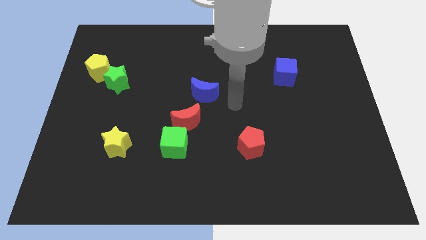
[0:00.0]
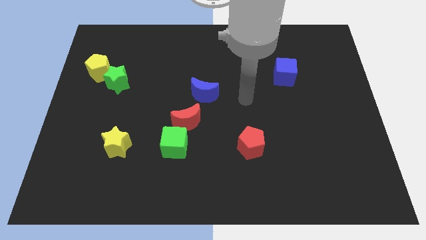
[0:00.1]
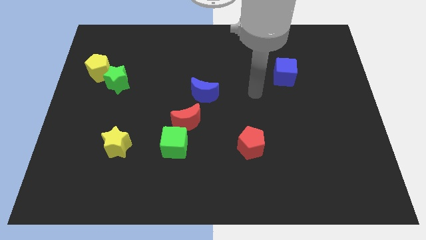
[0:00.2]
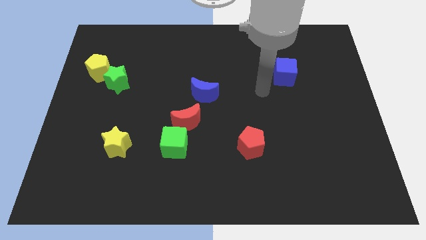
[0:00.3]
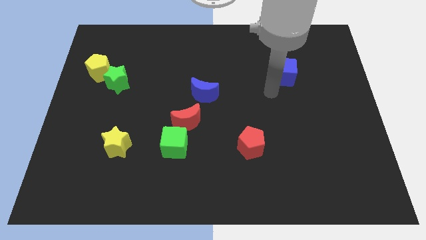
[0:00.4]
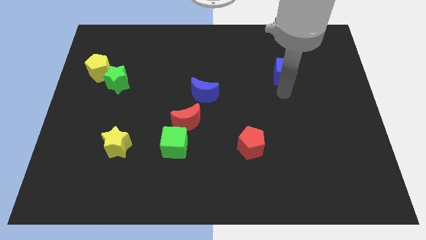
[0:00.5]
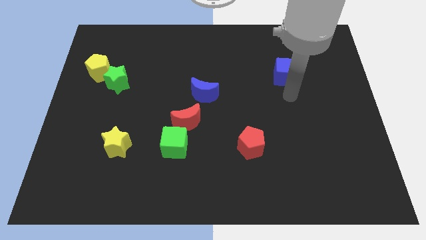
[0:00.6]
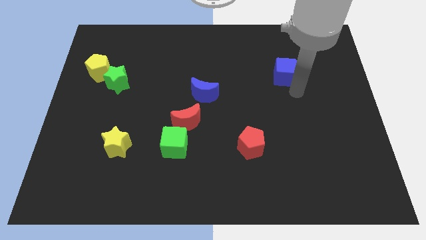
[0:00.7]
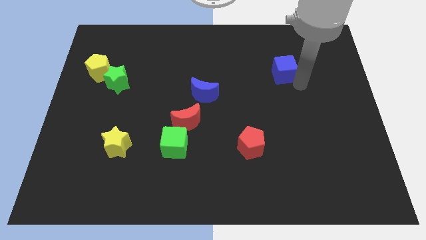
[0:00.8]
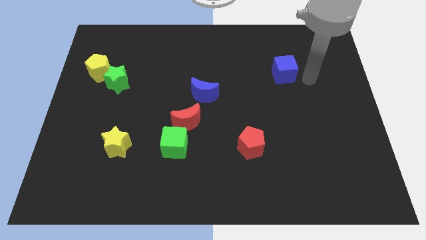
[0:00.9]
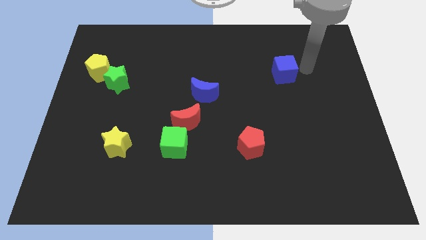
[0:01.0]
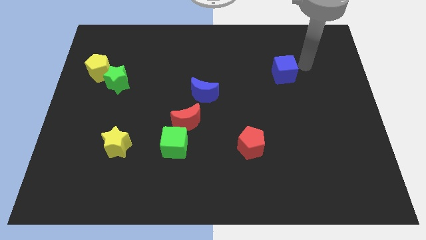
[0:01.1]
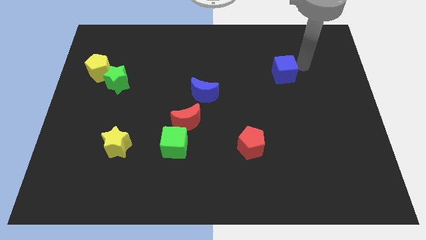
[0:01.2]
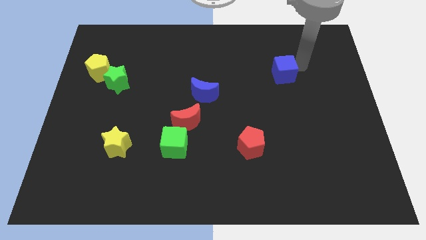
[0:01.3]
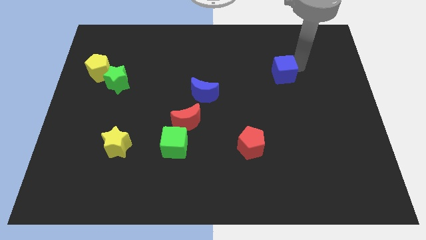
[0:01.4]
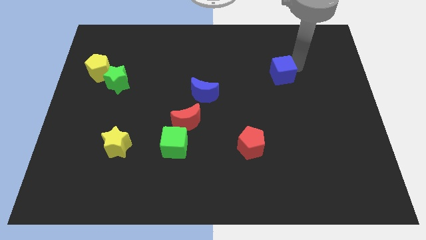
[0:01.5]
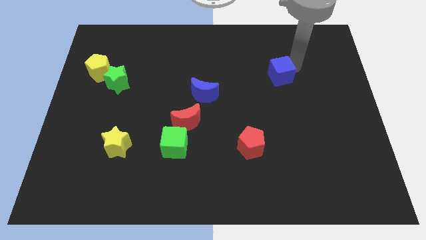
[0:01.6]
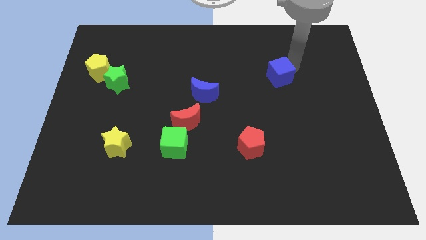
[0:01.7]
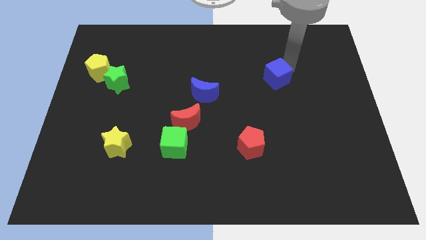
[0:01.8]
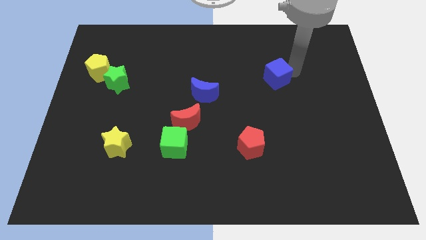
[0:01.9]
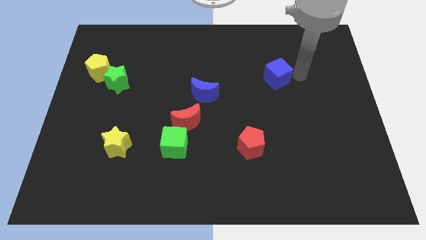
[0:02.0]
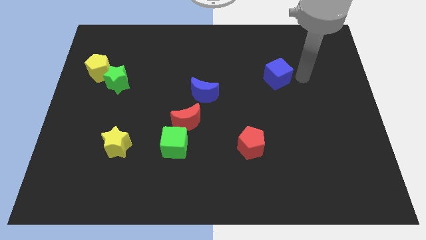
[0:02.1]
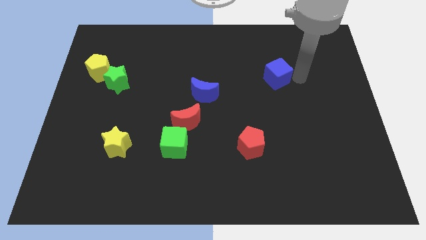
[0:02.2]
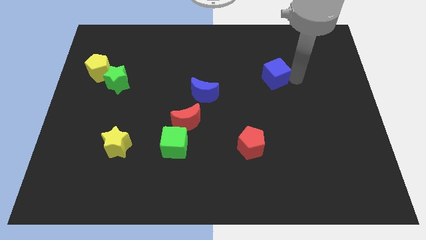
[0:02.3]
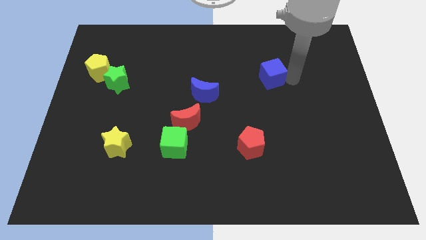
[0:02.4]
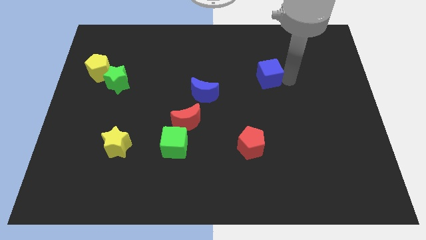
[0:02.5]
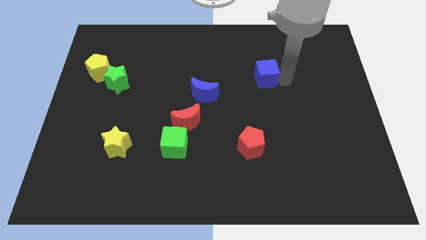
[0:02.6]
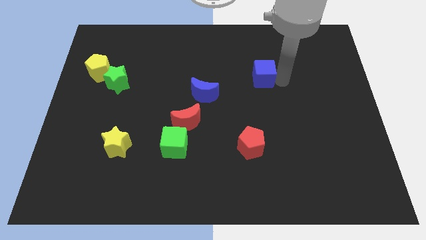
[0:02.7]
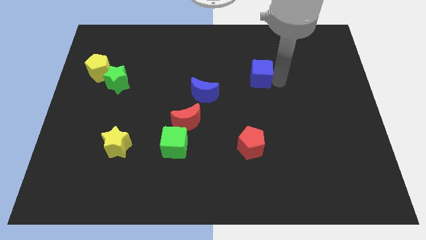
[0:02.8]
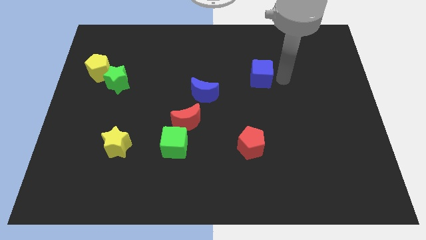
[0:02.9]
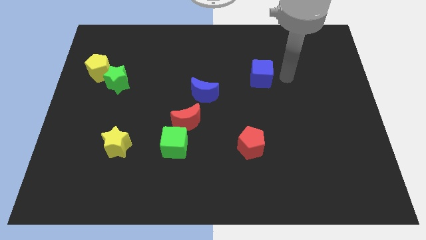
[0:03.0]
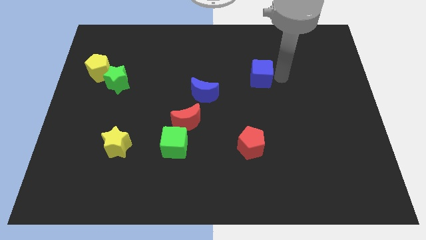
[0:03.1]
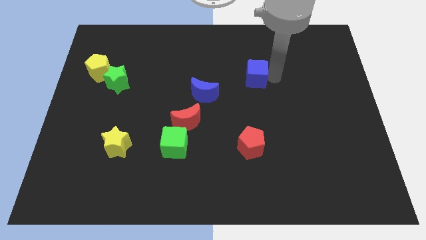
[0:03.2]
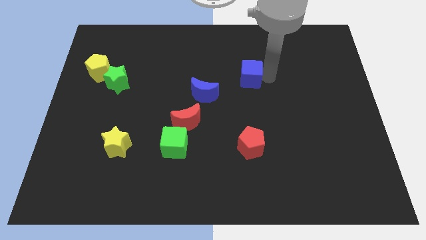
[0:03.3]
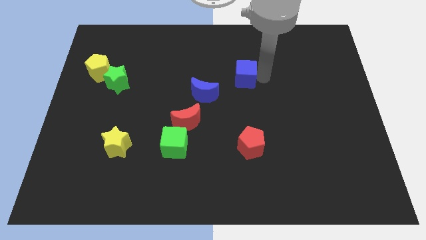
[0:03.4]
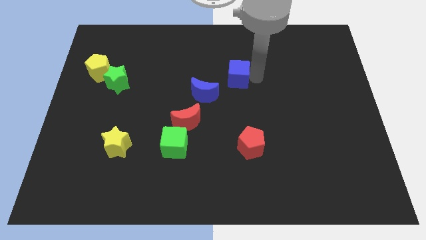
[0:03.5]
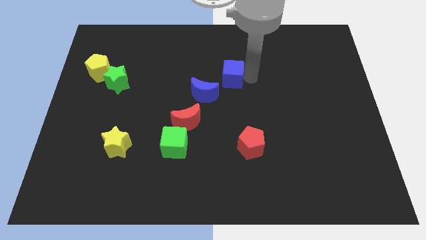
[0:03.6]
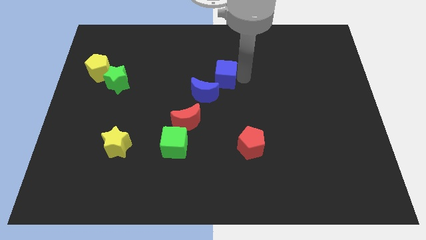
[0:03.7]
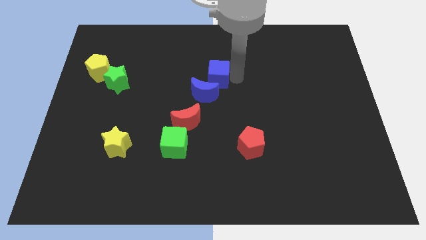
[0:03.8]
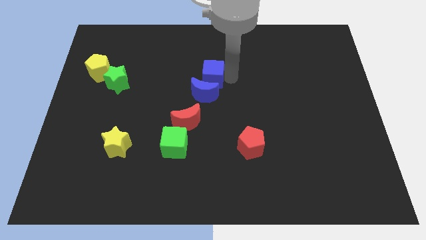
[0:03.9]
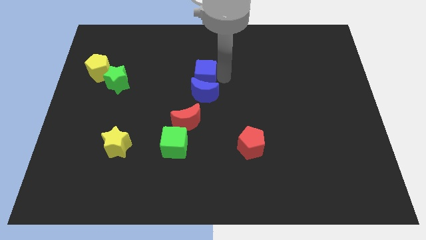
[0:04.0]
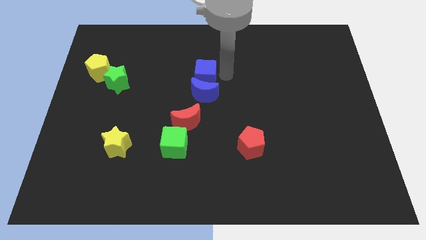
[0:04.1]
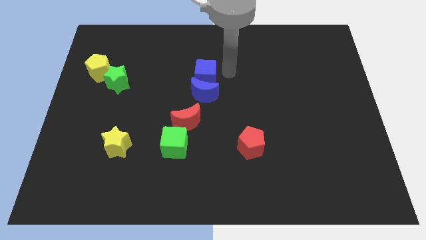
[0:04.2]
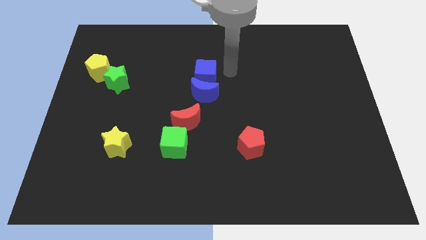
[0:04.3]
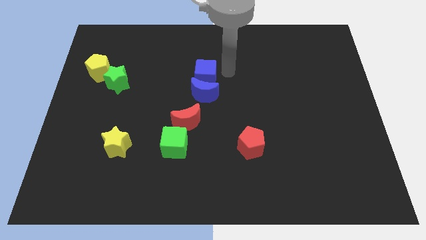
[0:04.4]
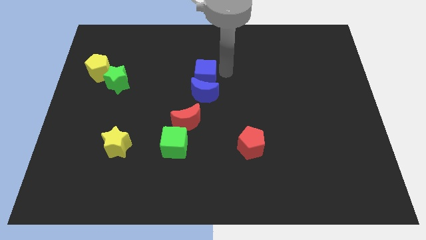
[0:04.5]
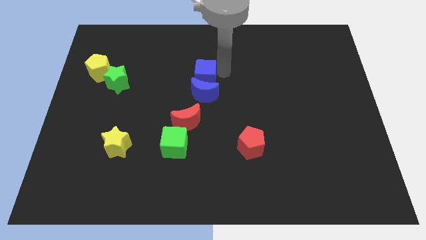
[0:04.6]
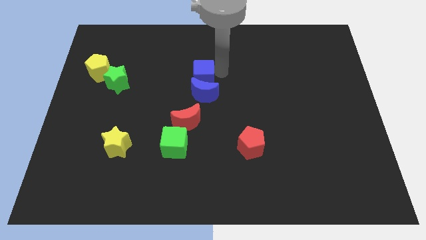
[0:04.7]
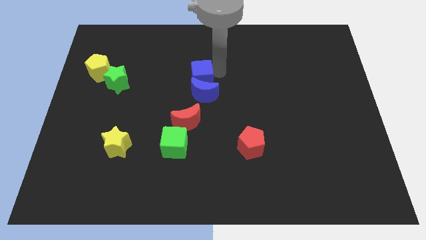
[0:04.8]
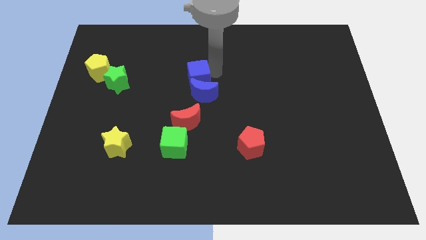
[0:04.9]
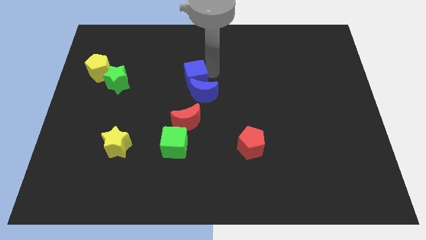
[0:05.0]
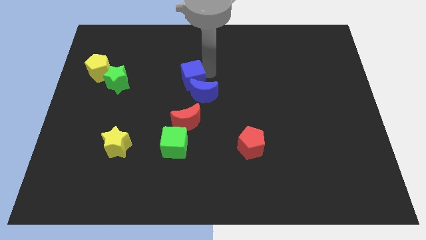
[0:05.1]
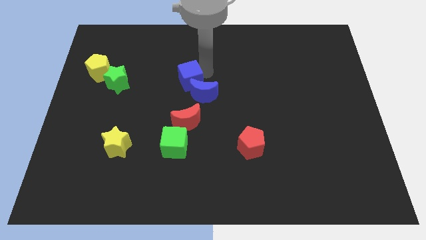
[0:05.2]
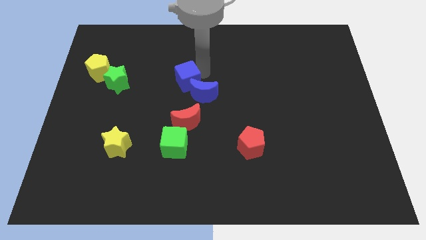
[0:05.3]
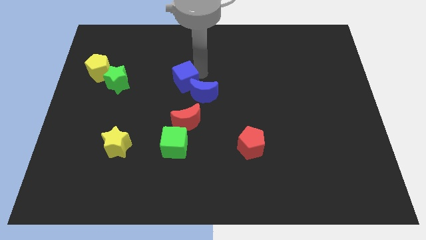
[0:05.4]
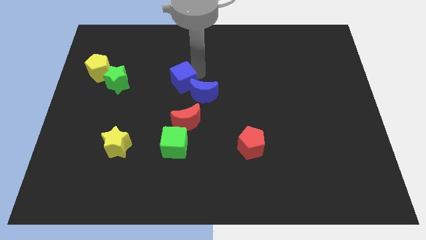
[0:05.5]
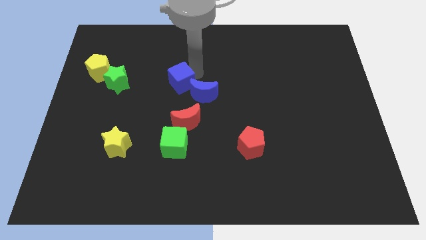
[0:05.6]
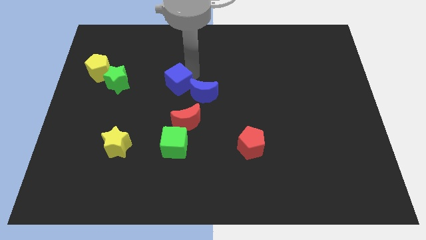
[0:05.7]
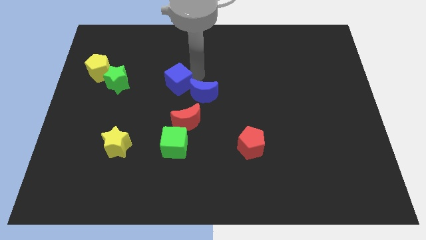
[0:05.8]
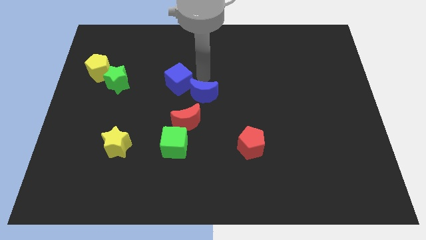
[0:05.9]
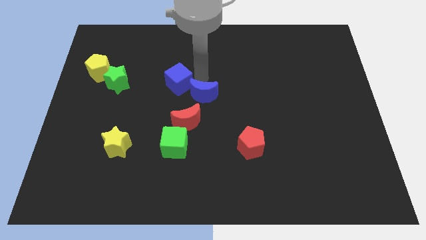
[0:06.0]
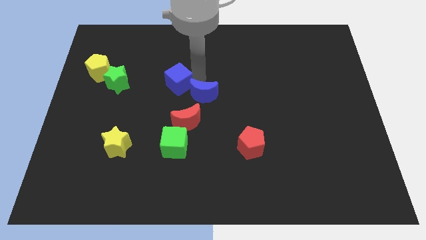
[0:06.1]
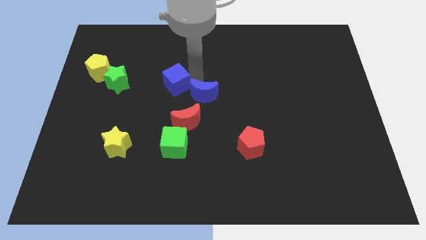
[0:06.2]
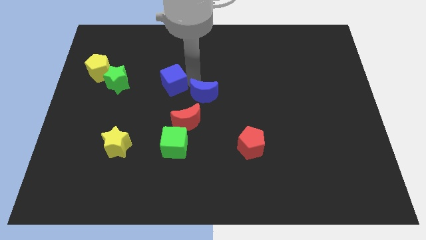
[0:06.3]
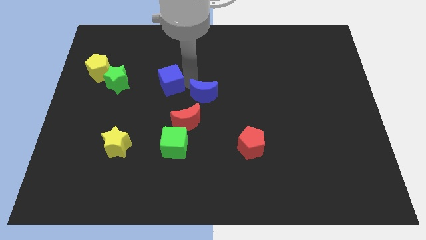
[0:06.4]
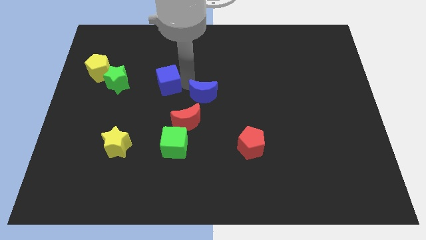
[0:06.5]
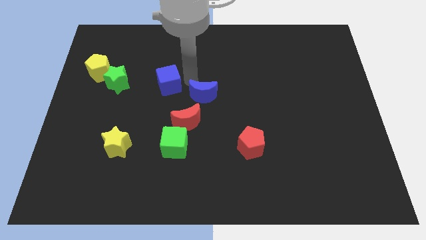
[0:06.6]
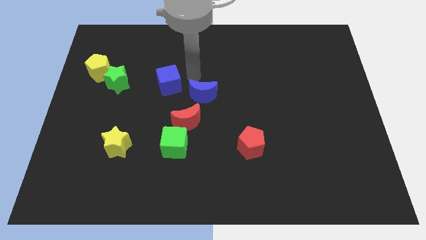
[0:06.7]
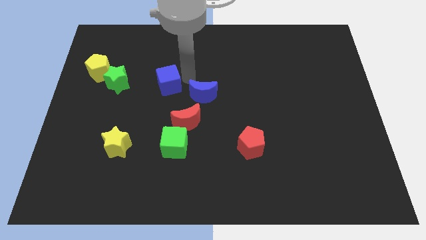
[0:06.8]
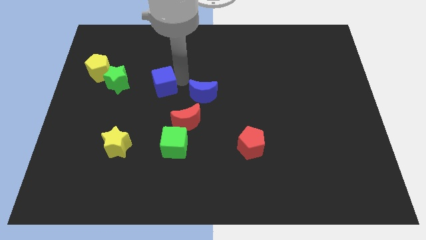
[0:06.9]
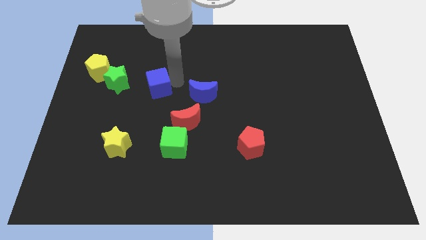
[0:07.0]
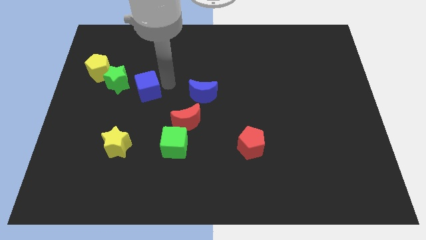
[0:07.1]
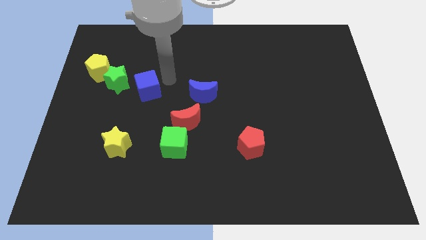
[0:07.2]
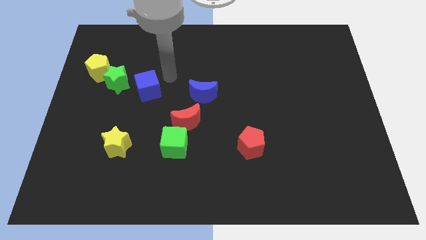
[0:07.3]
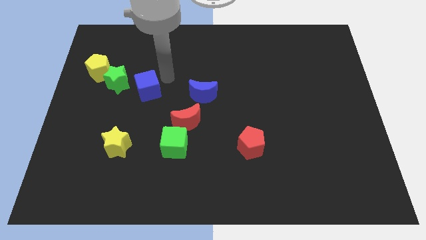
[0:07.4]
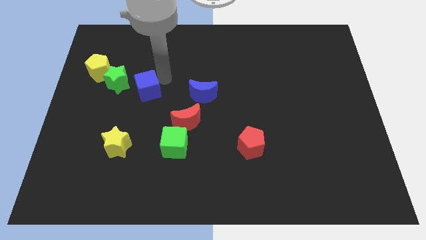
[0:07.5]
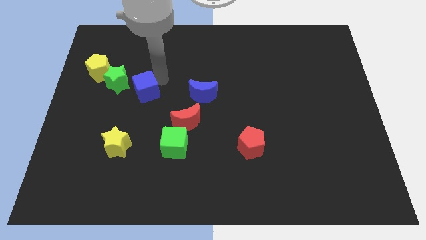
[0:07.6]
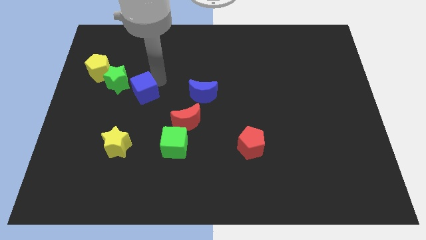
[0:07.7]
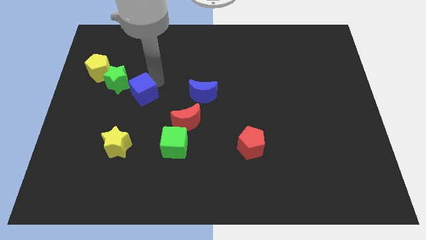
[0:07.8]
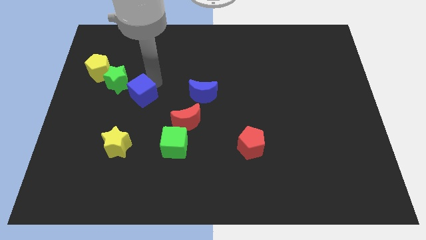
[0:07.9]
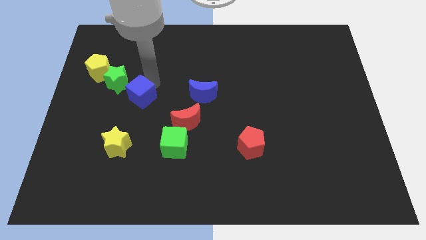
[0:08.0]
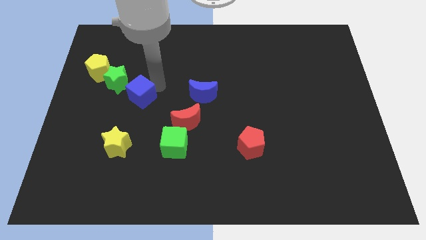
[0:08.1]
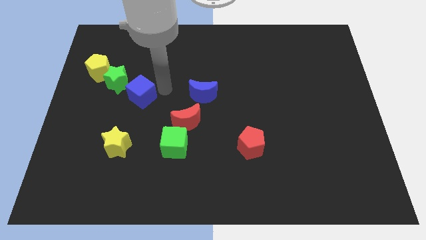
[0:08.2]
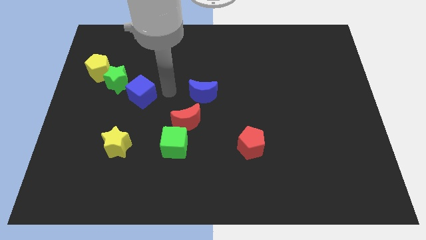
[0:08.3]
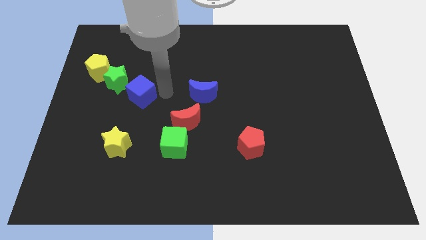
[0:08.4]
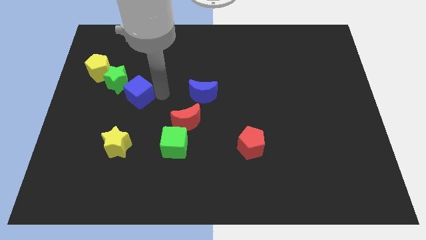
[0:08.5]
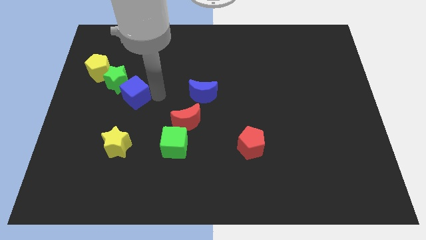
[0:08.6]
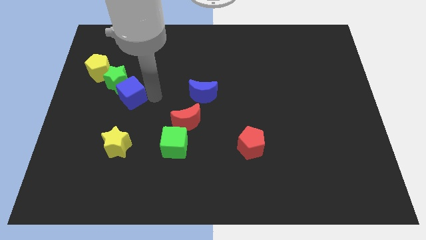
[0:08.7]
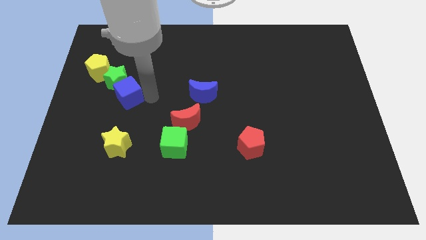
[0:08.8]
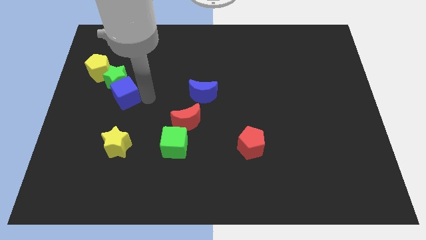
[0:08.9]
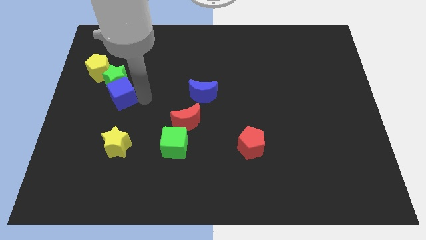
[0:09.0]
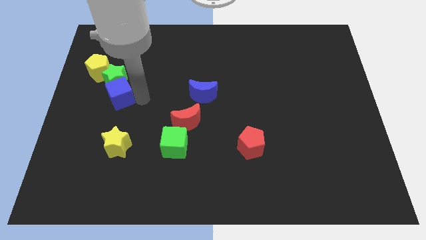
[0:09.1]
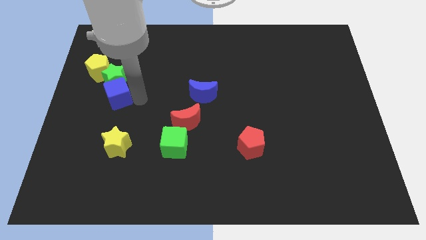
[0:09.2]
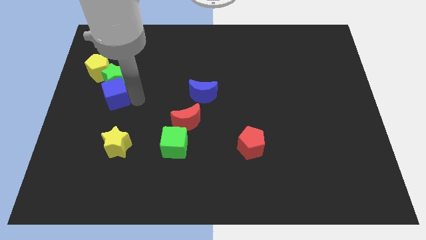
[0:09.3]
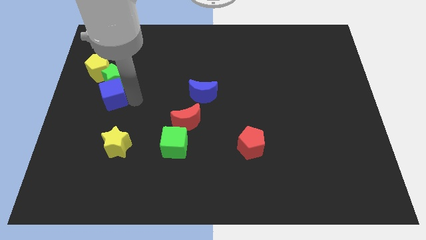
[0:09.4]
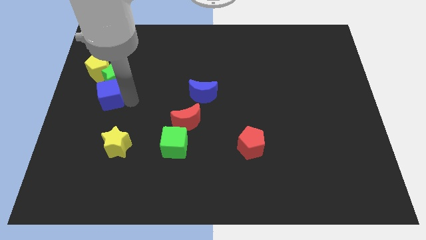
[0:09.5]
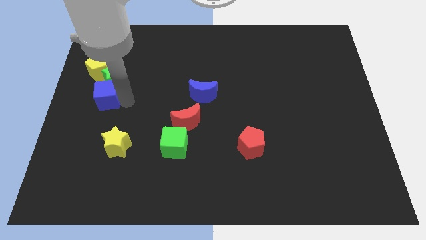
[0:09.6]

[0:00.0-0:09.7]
slide the blue cube to the left side
